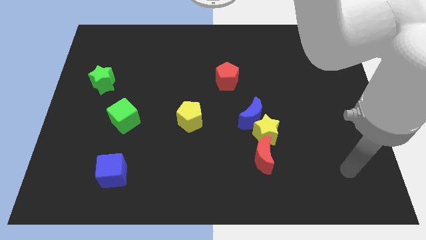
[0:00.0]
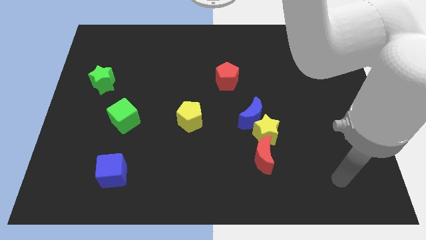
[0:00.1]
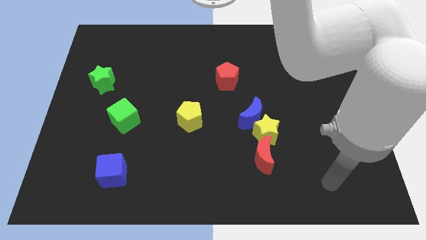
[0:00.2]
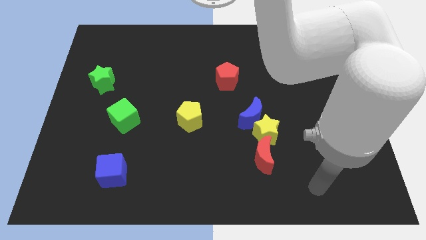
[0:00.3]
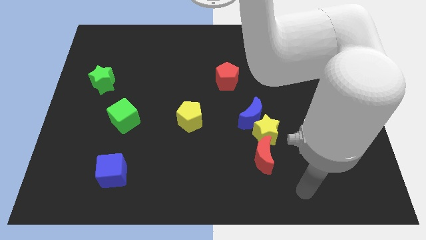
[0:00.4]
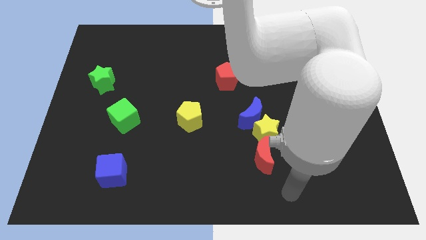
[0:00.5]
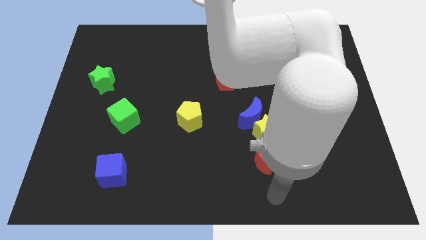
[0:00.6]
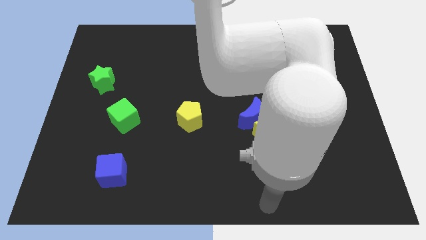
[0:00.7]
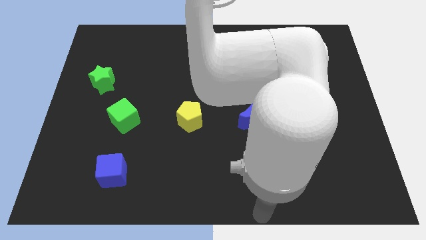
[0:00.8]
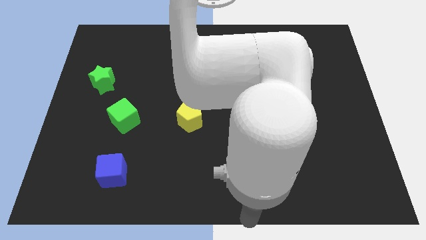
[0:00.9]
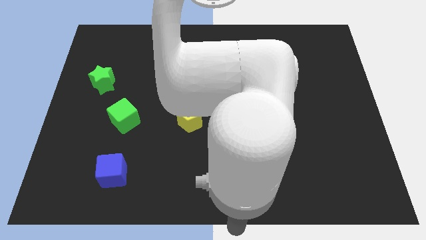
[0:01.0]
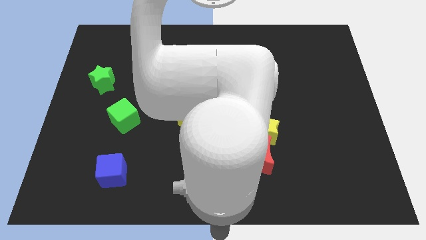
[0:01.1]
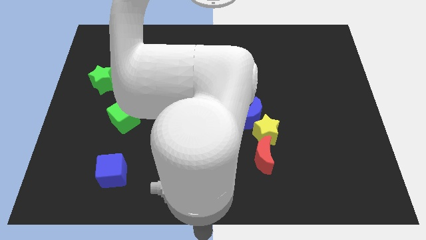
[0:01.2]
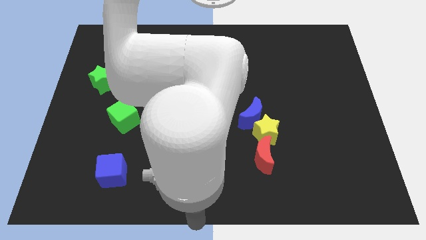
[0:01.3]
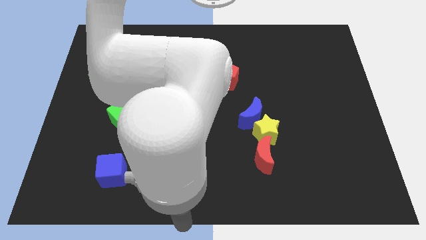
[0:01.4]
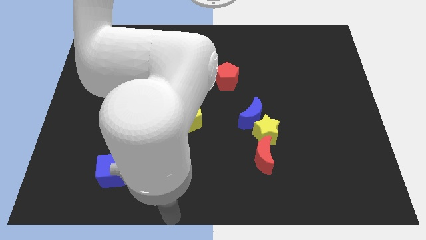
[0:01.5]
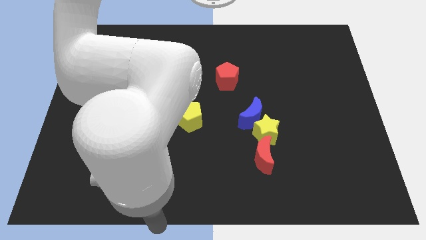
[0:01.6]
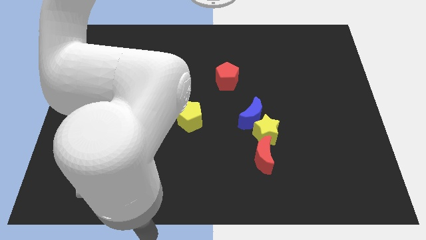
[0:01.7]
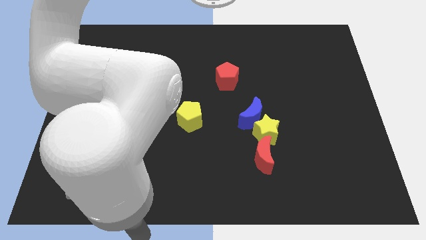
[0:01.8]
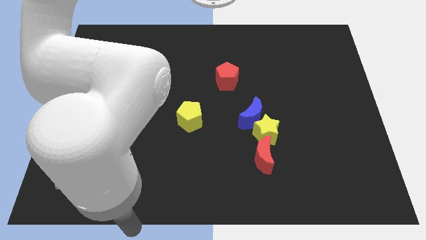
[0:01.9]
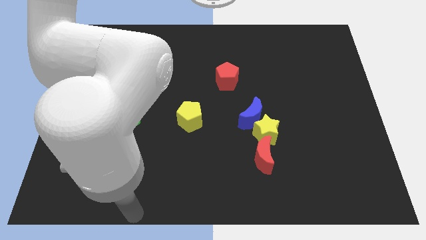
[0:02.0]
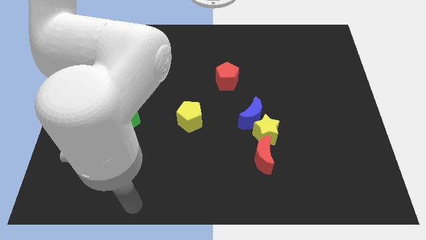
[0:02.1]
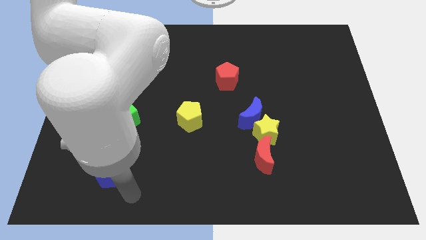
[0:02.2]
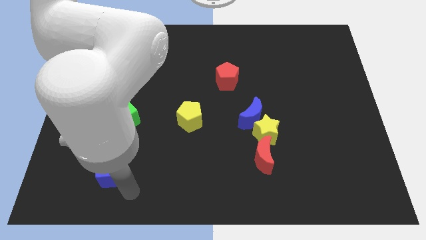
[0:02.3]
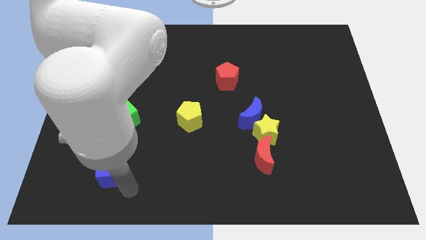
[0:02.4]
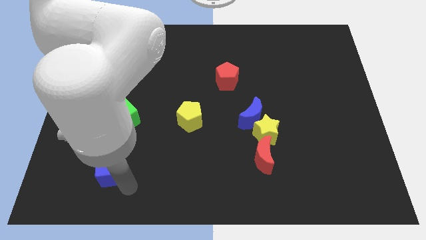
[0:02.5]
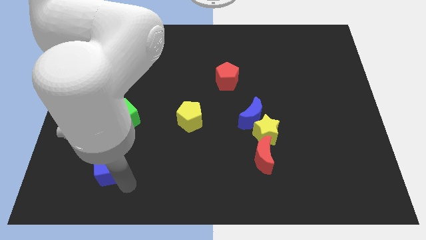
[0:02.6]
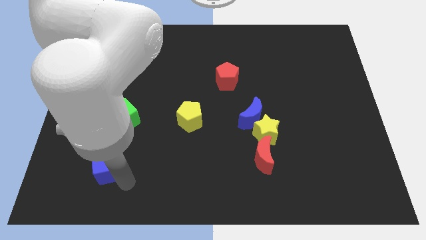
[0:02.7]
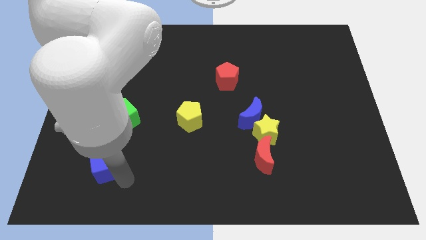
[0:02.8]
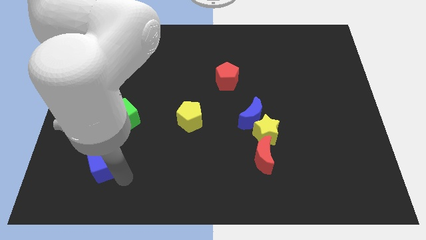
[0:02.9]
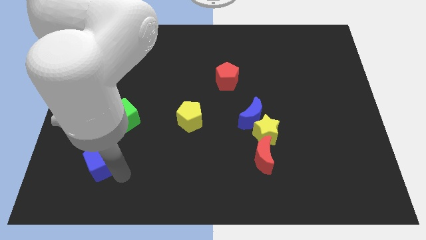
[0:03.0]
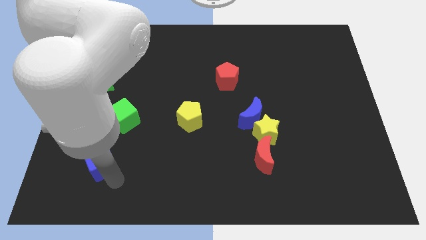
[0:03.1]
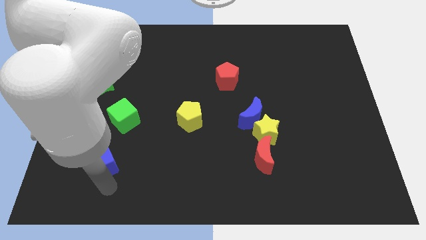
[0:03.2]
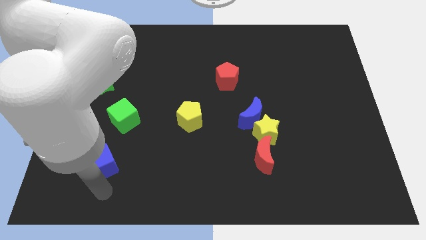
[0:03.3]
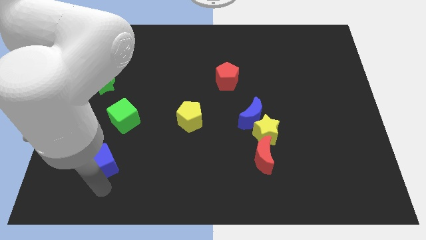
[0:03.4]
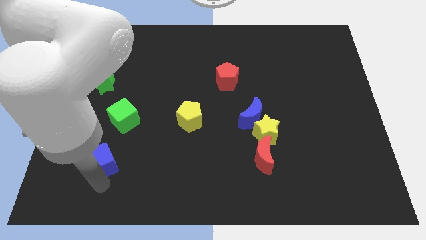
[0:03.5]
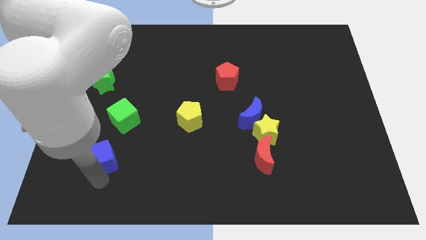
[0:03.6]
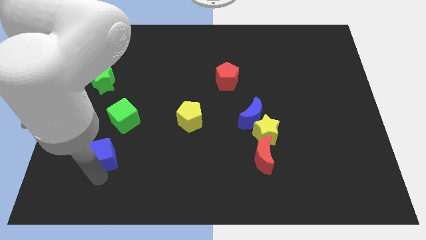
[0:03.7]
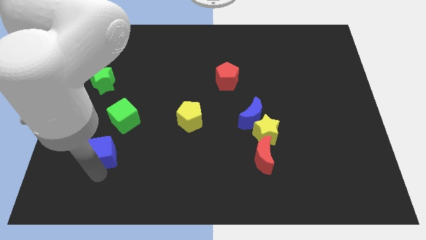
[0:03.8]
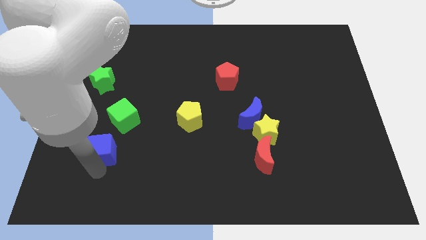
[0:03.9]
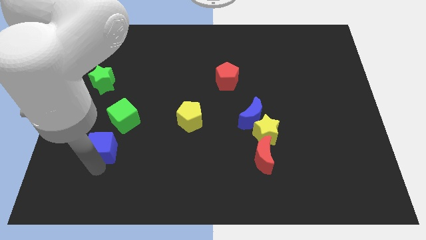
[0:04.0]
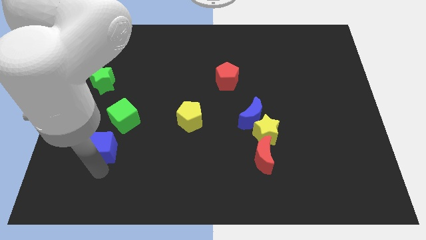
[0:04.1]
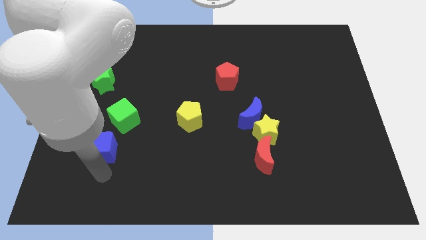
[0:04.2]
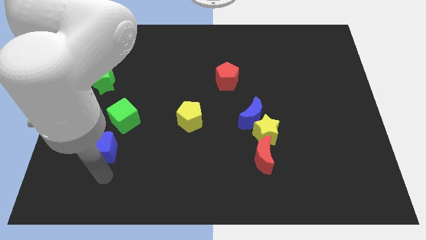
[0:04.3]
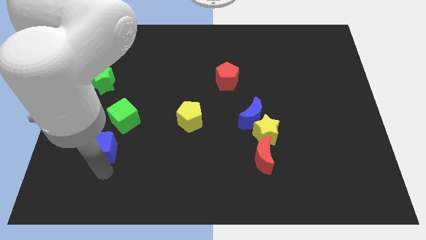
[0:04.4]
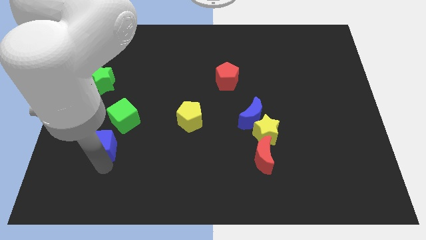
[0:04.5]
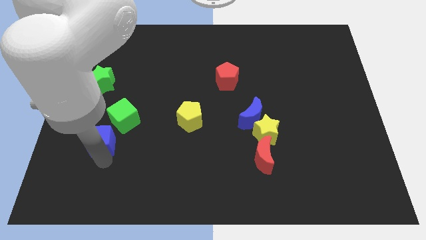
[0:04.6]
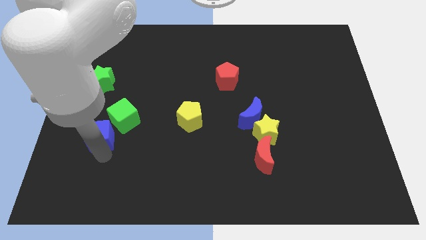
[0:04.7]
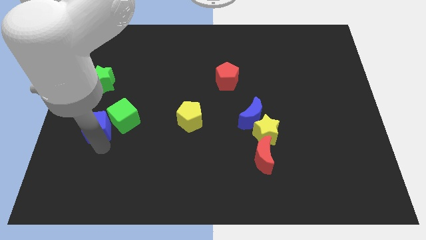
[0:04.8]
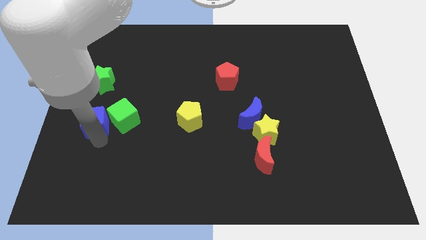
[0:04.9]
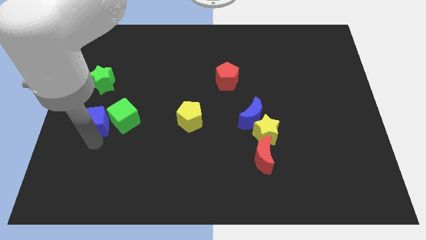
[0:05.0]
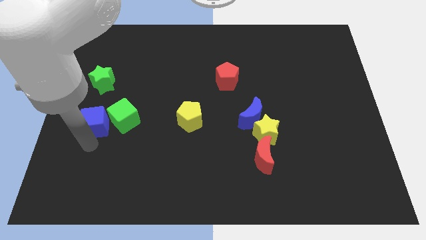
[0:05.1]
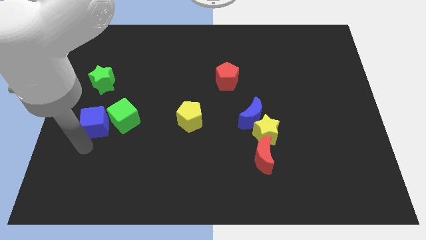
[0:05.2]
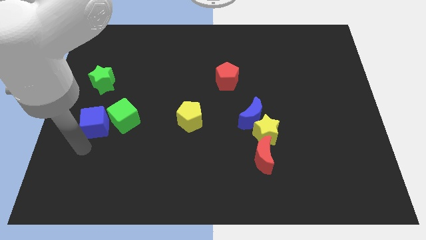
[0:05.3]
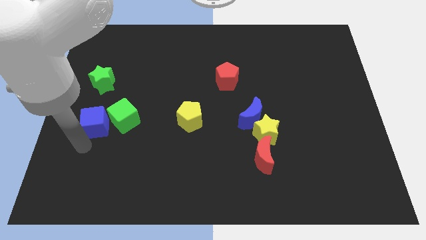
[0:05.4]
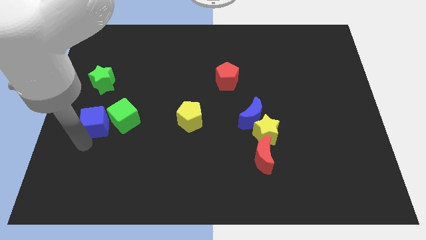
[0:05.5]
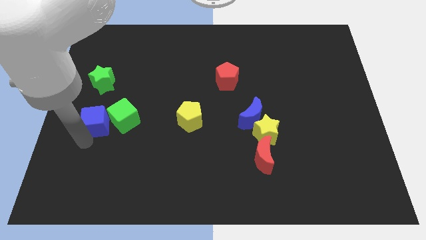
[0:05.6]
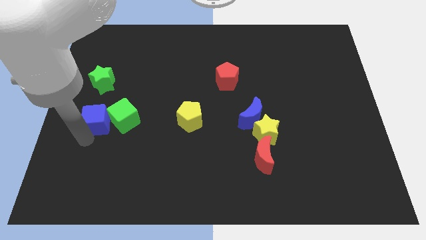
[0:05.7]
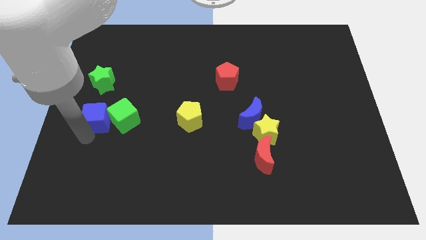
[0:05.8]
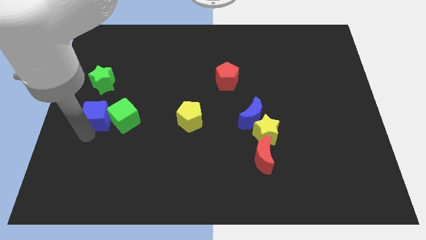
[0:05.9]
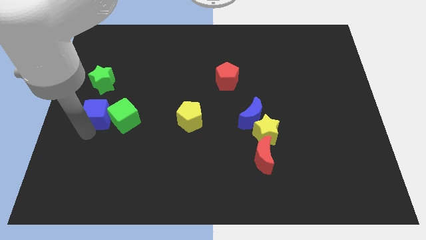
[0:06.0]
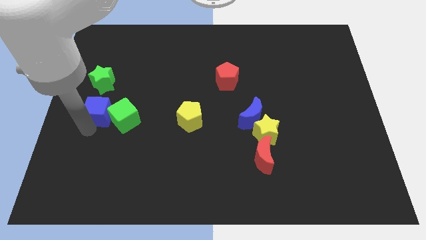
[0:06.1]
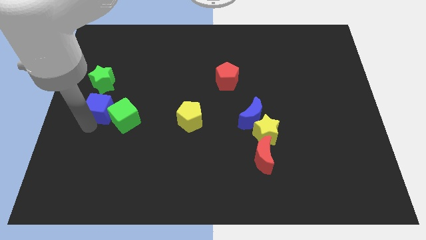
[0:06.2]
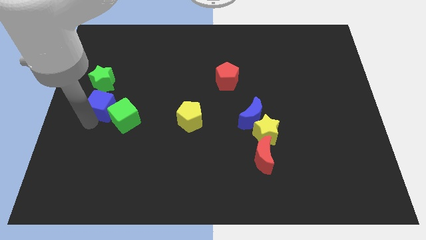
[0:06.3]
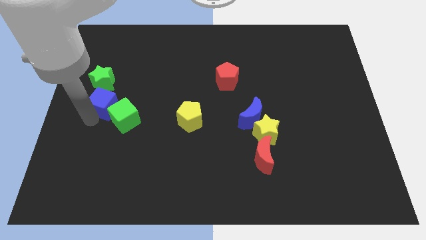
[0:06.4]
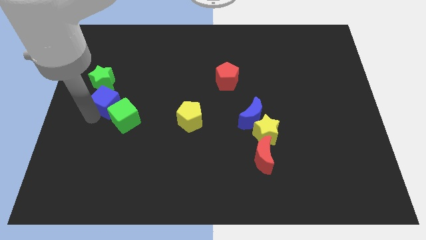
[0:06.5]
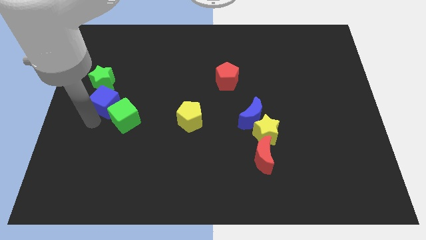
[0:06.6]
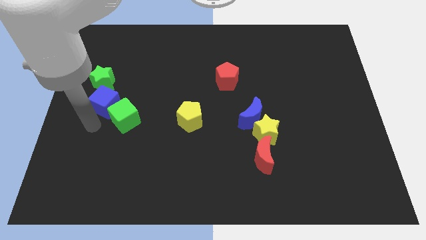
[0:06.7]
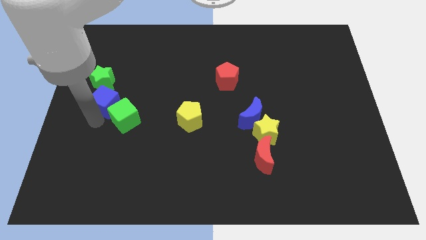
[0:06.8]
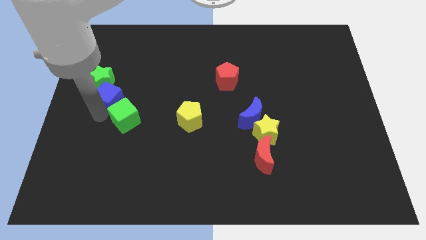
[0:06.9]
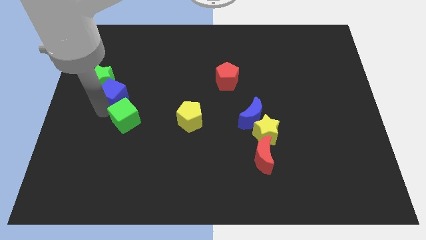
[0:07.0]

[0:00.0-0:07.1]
slide the blue cube up

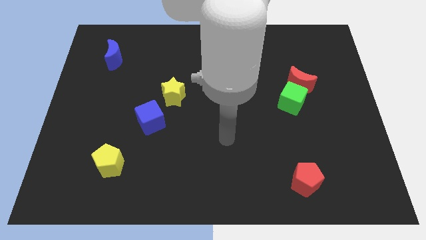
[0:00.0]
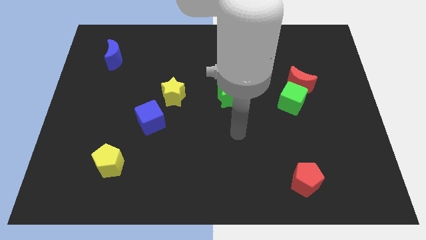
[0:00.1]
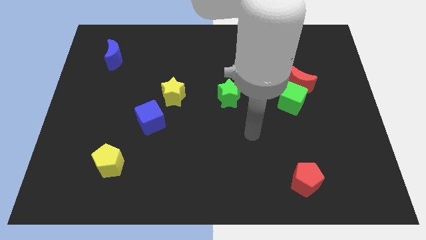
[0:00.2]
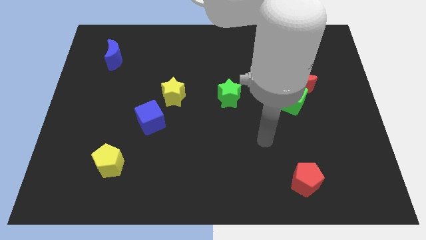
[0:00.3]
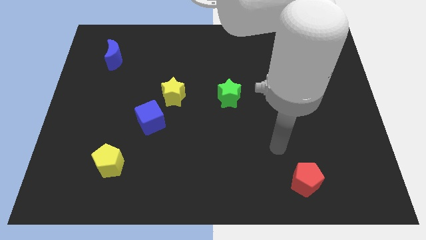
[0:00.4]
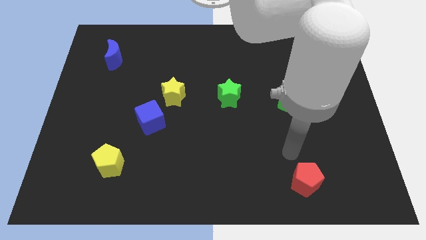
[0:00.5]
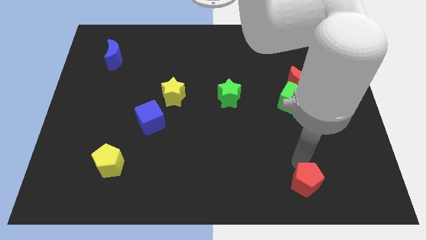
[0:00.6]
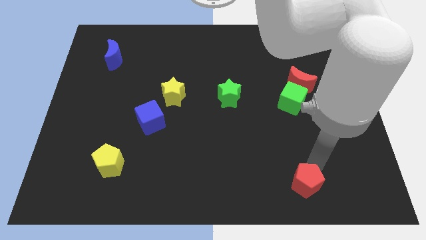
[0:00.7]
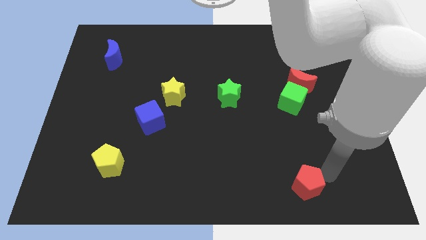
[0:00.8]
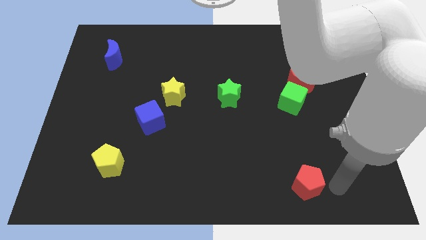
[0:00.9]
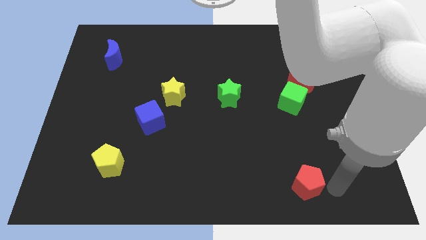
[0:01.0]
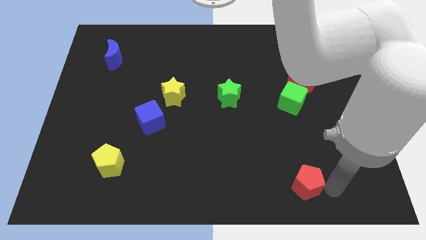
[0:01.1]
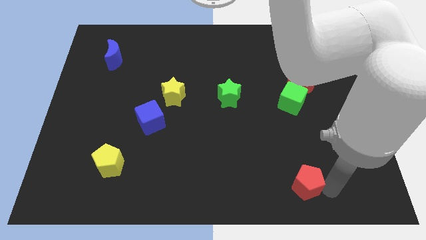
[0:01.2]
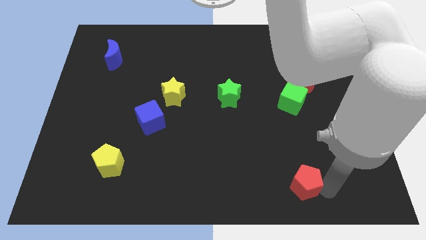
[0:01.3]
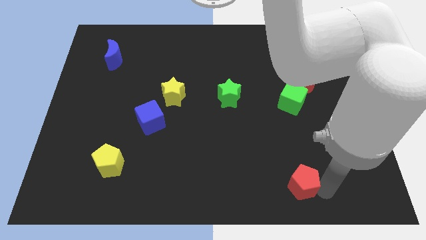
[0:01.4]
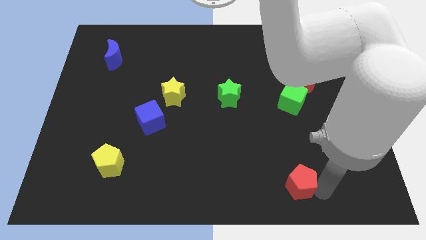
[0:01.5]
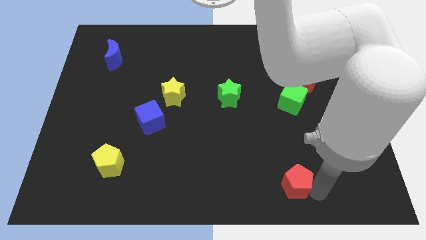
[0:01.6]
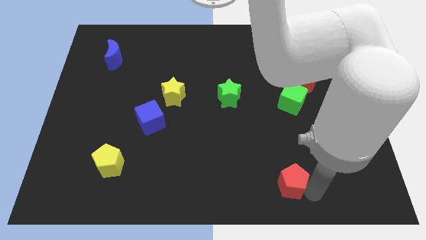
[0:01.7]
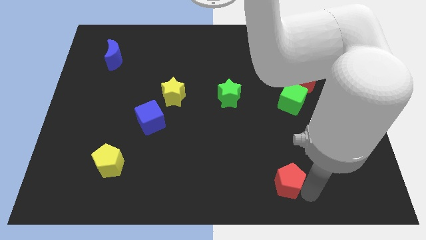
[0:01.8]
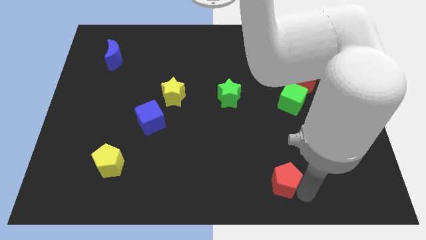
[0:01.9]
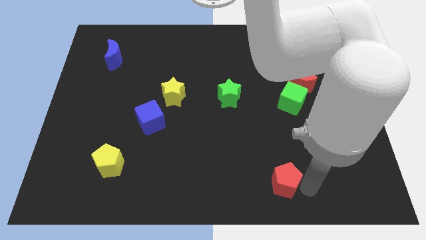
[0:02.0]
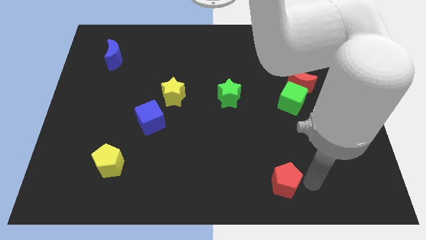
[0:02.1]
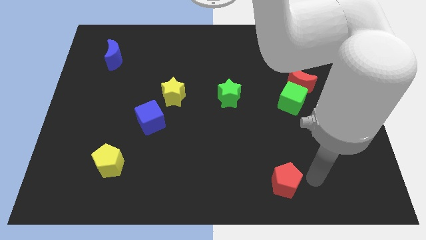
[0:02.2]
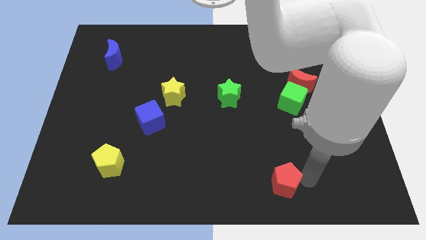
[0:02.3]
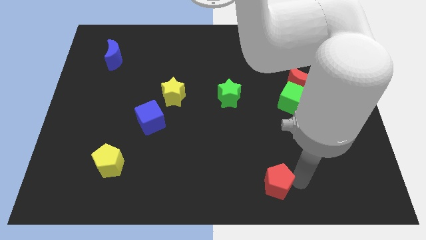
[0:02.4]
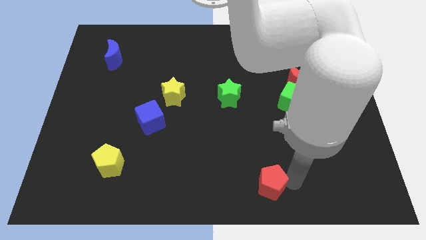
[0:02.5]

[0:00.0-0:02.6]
move the red pentagon a little to the left
